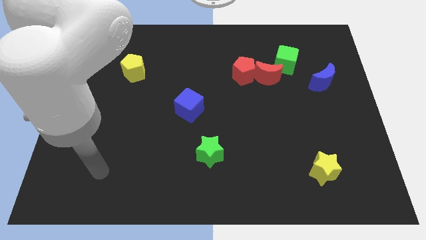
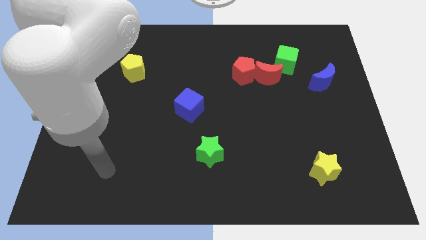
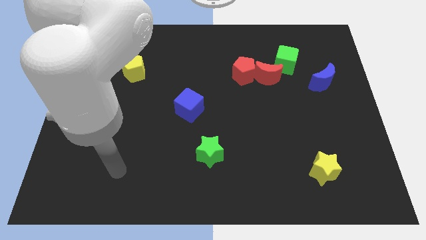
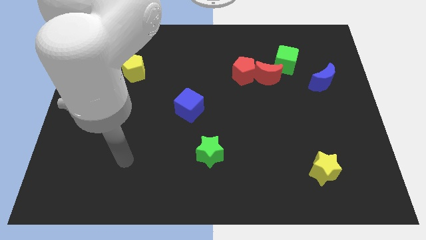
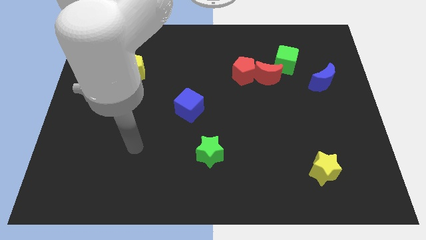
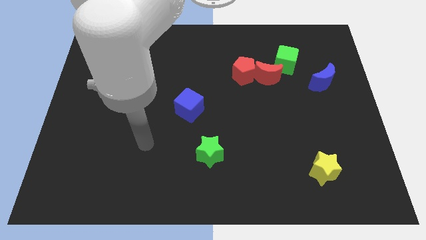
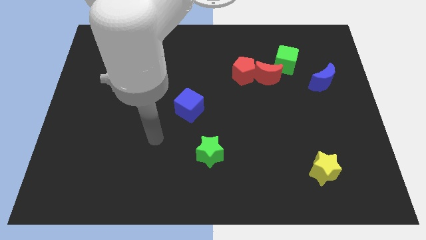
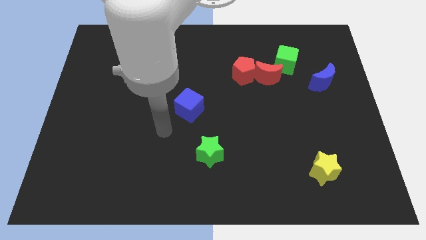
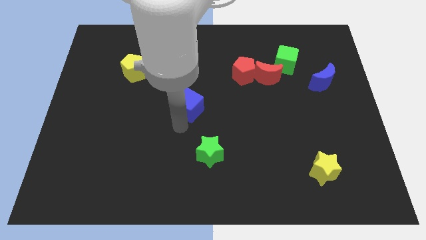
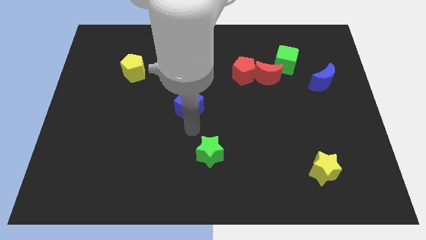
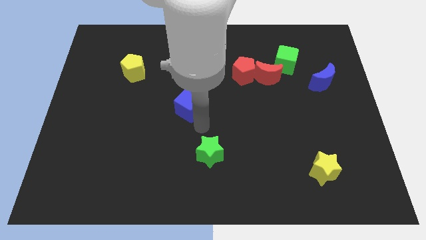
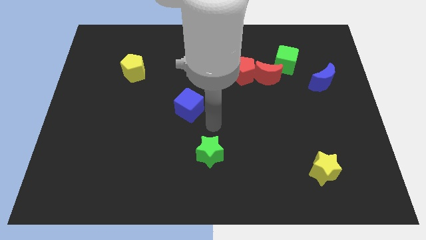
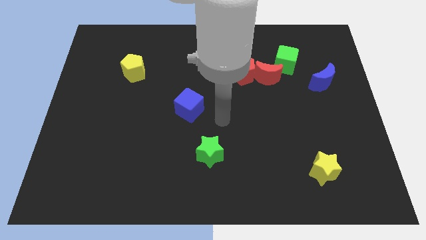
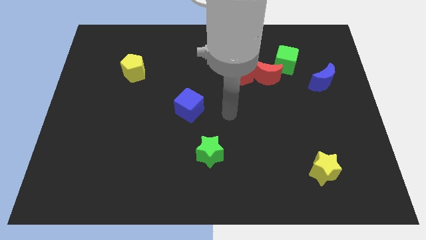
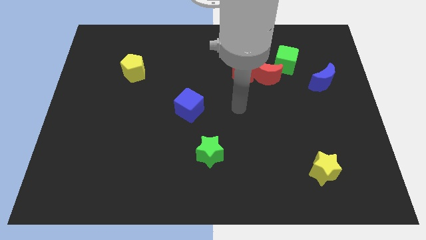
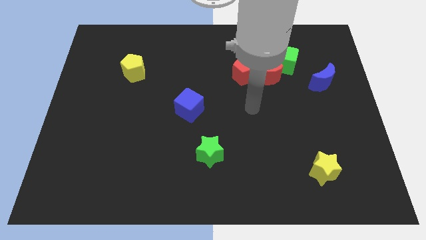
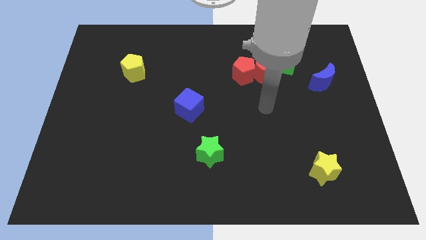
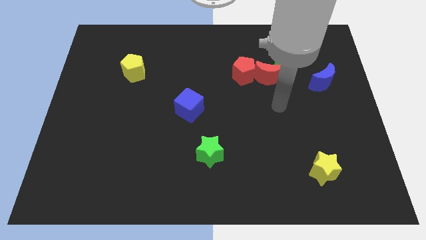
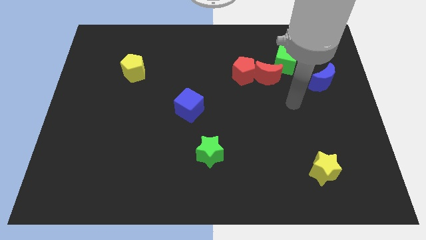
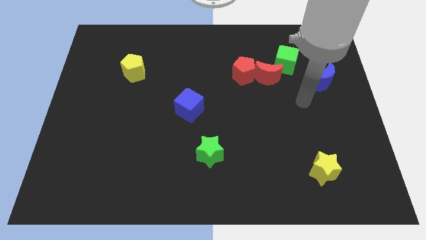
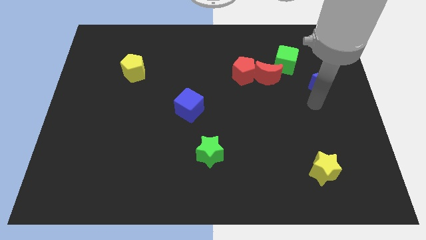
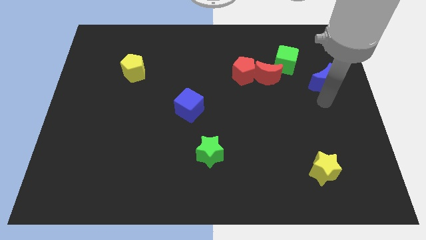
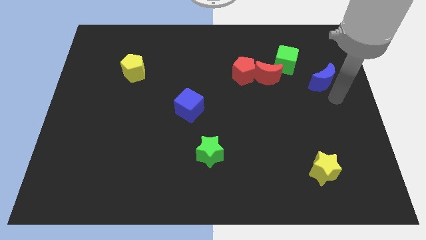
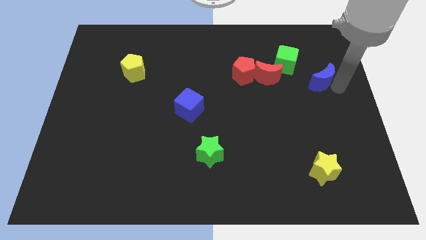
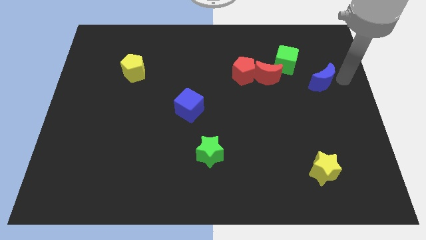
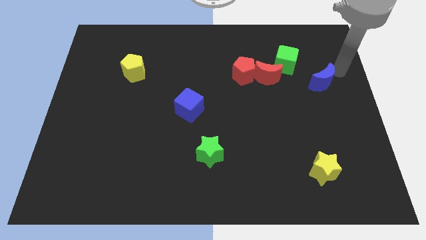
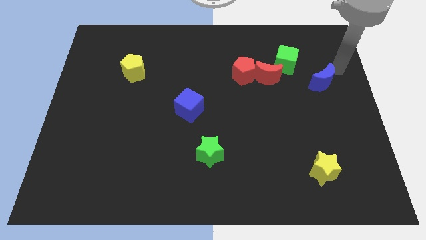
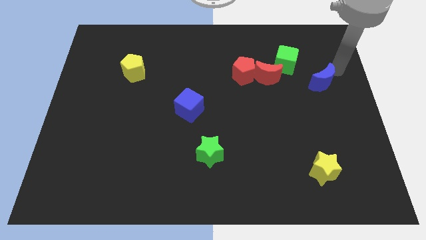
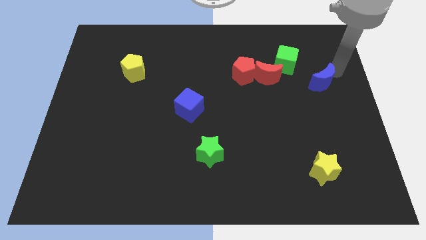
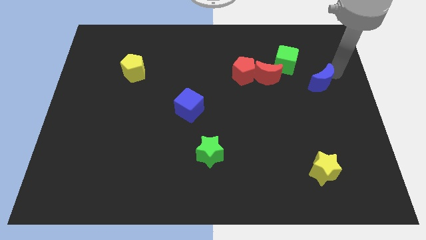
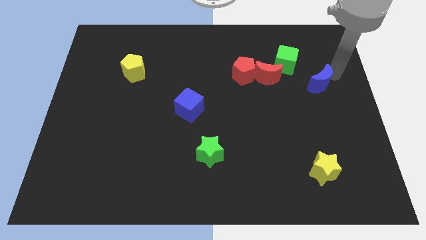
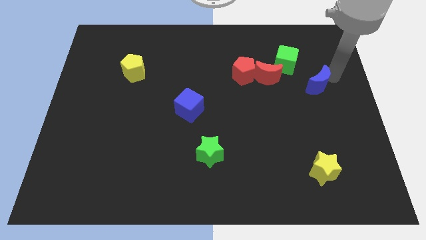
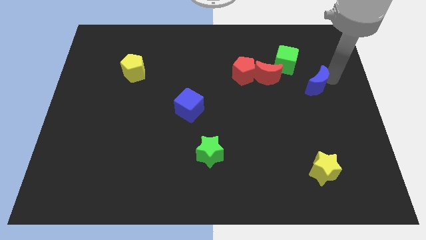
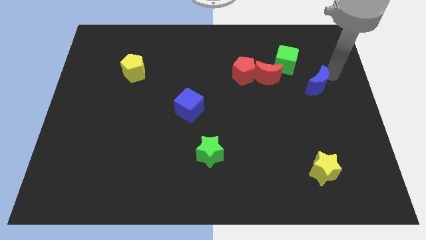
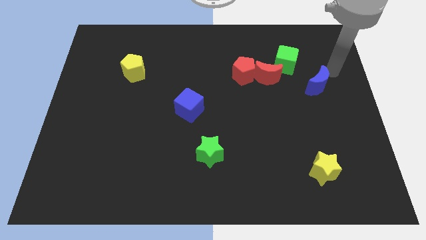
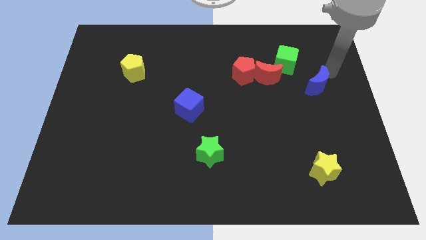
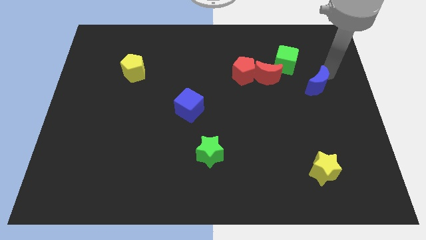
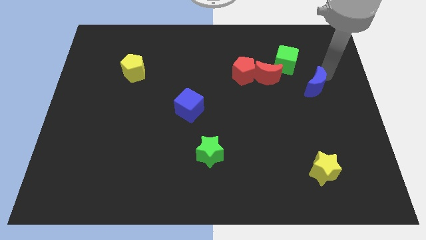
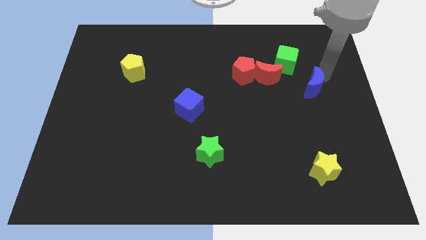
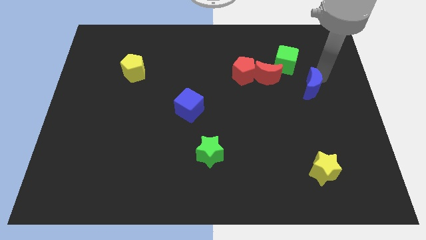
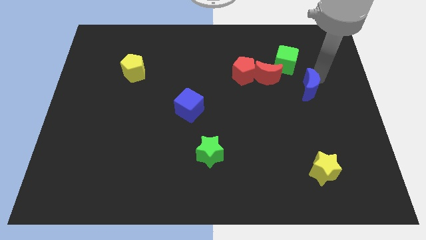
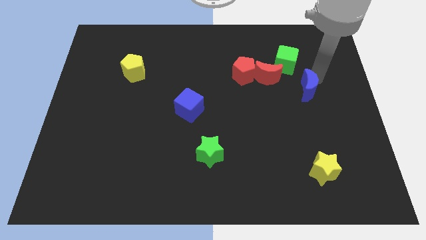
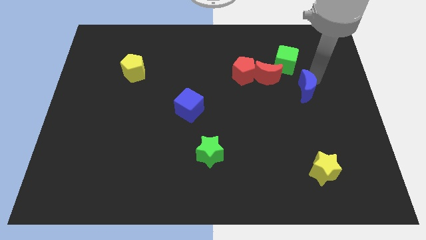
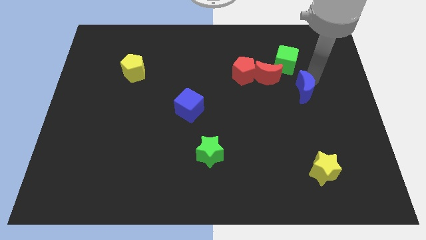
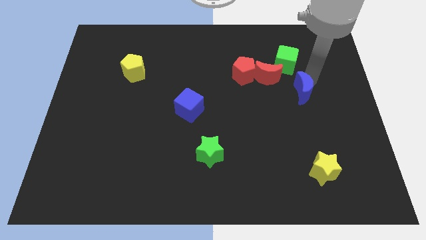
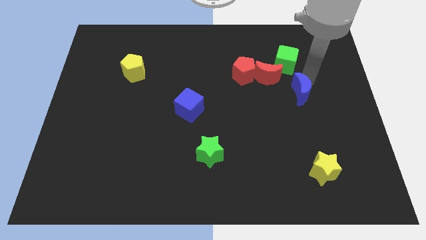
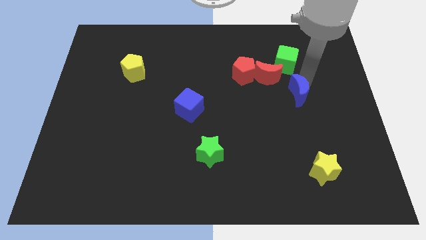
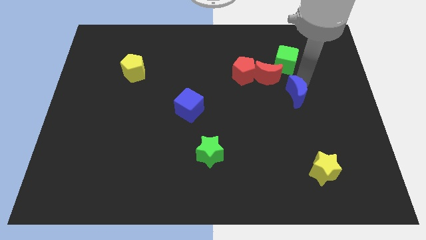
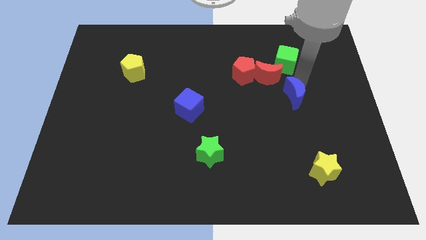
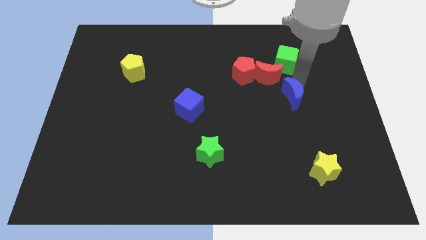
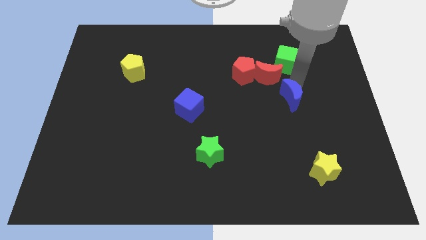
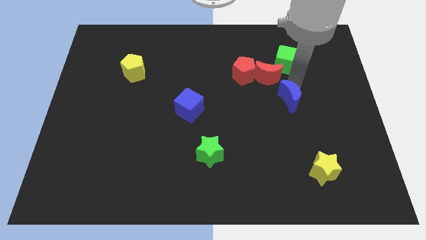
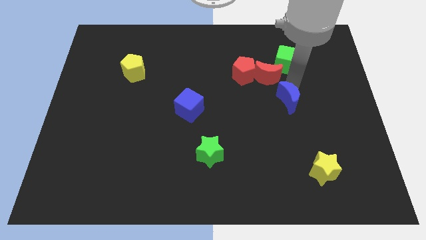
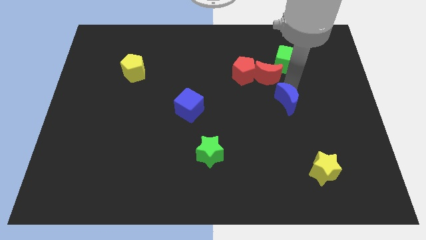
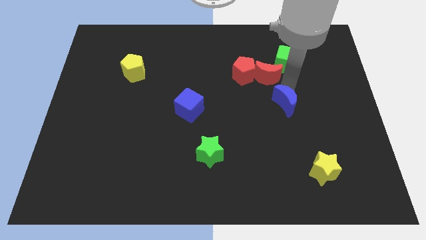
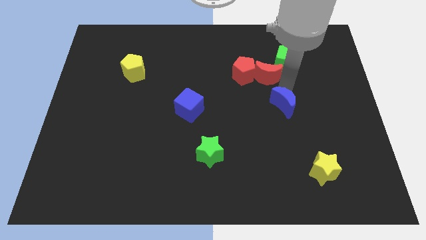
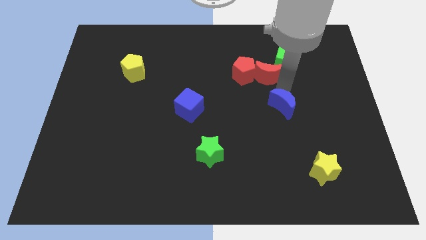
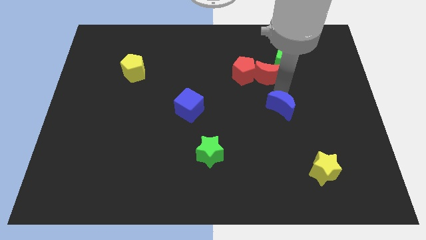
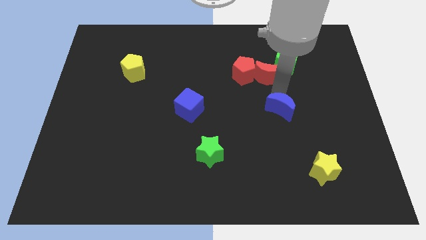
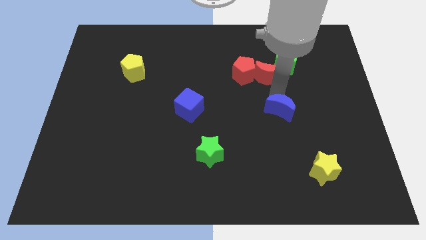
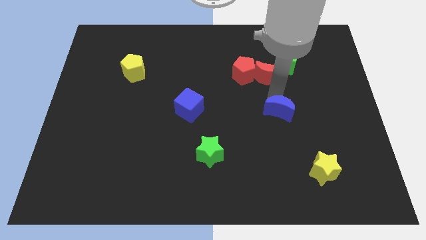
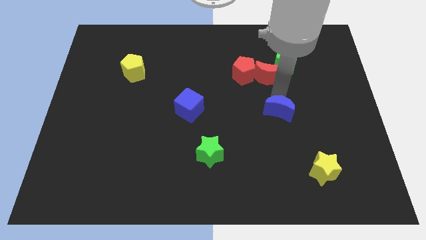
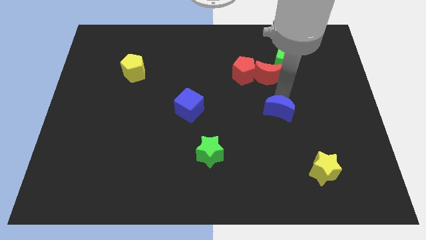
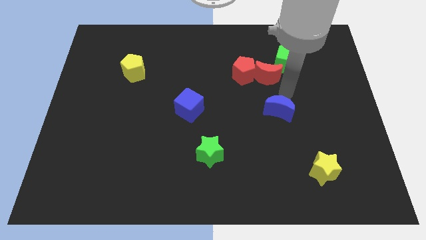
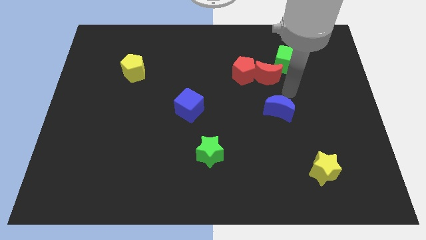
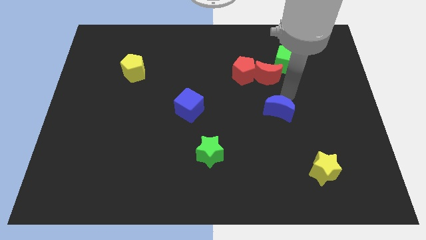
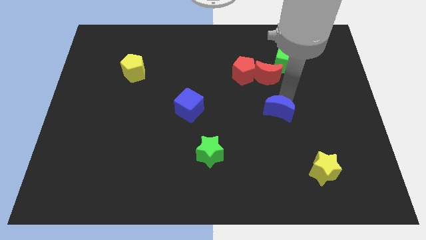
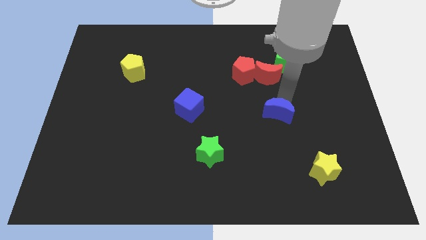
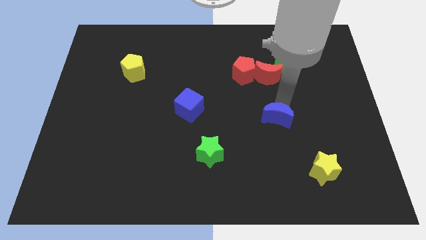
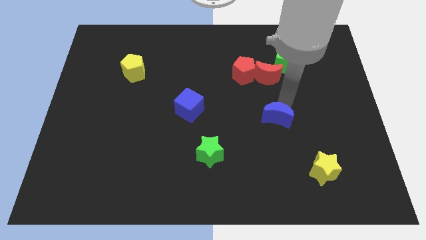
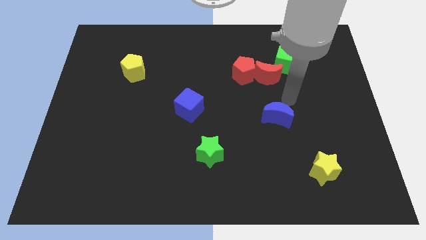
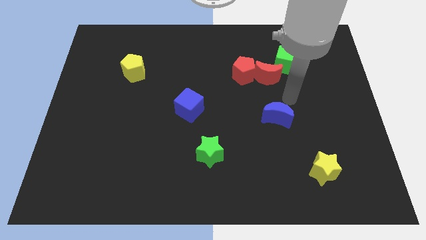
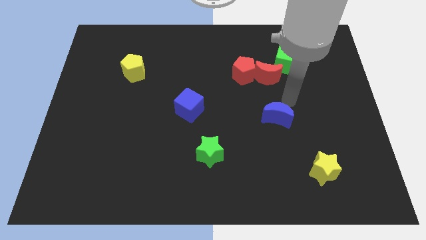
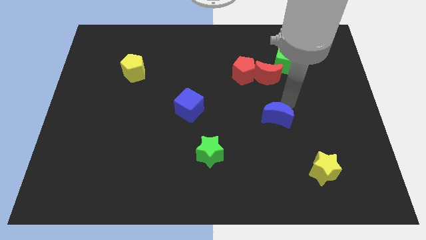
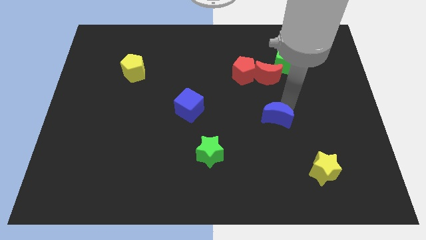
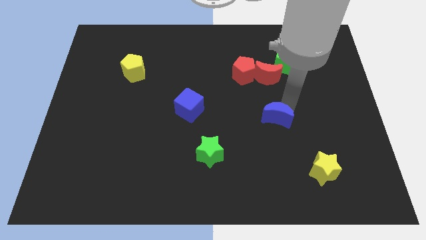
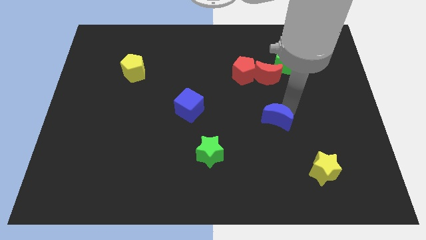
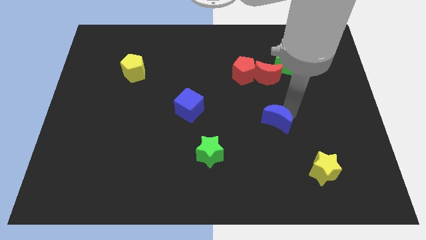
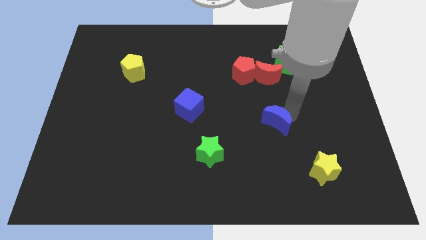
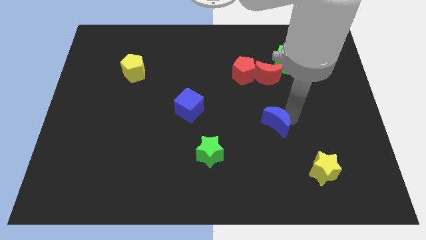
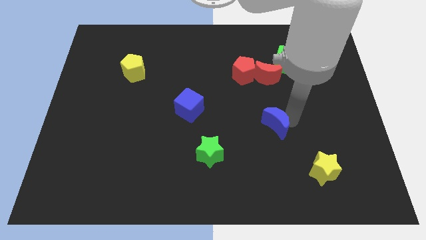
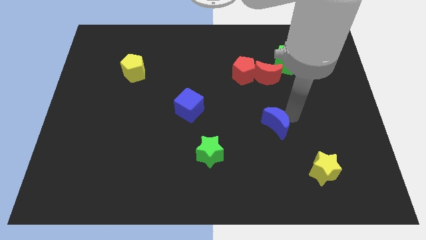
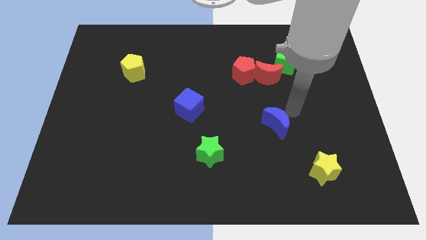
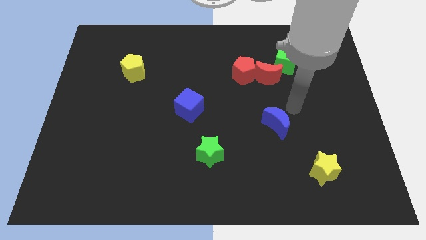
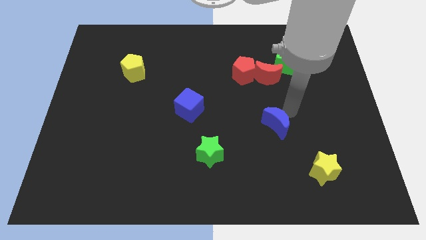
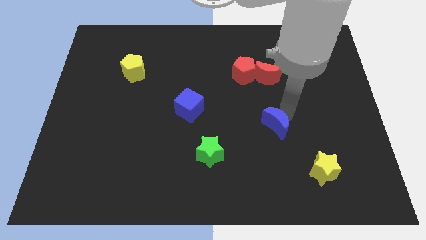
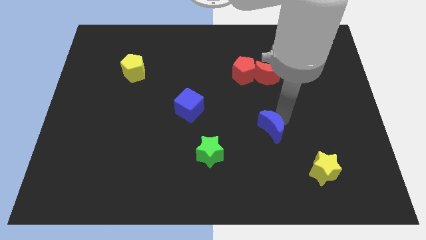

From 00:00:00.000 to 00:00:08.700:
move the blue moon downwards and to the left diagonally
